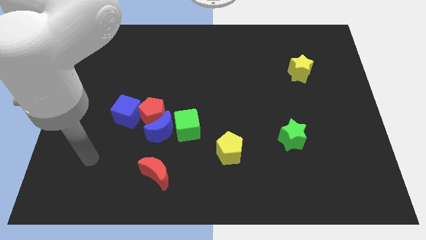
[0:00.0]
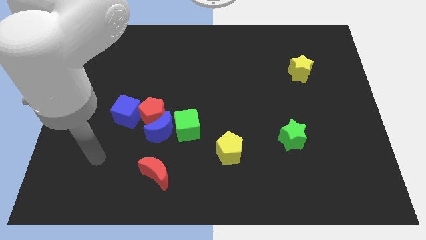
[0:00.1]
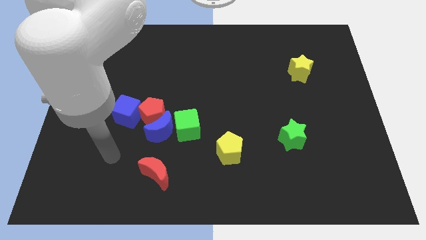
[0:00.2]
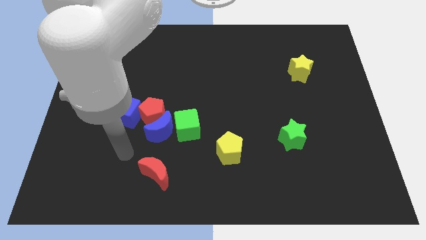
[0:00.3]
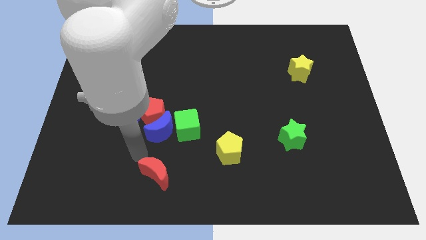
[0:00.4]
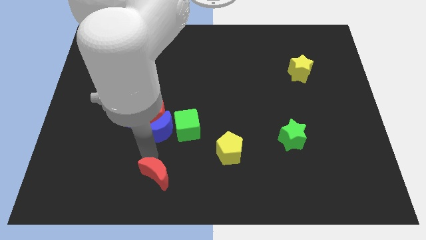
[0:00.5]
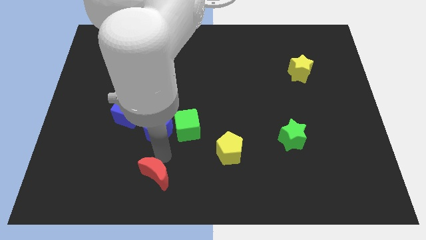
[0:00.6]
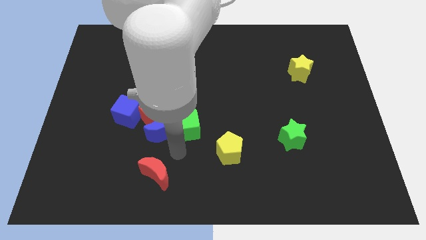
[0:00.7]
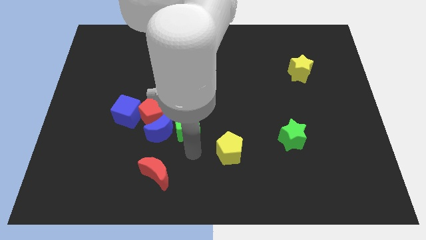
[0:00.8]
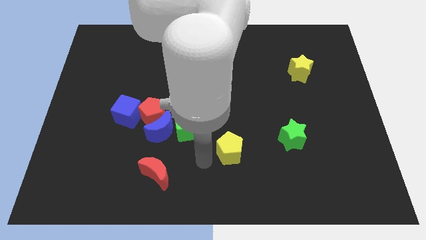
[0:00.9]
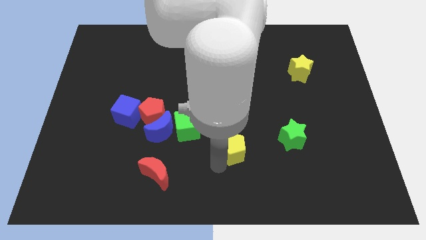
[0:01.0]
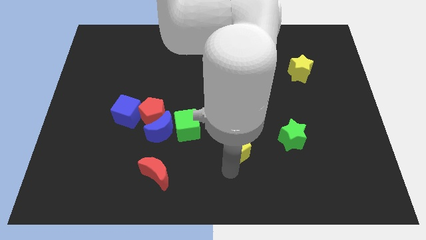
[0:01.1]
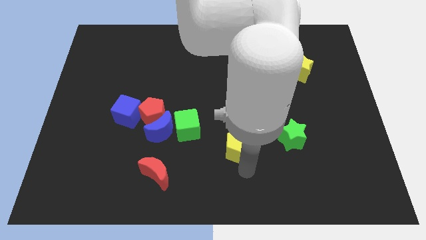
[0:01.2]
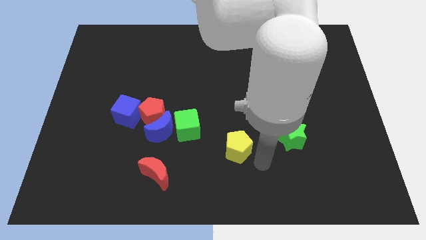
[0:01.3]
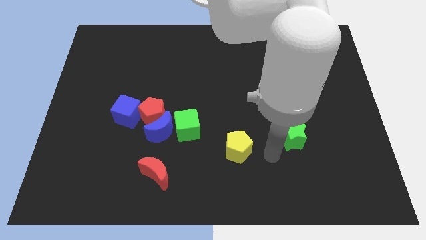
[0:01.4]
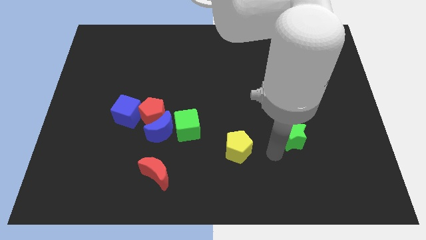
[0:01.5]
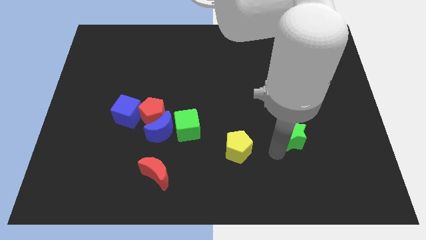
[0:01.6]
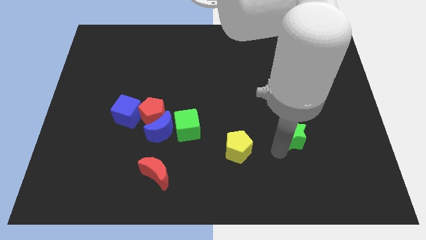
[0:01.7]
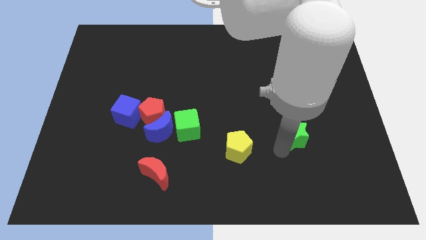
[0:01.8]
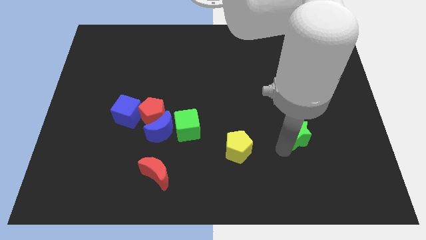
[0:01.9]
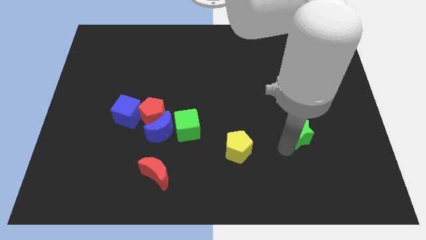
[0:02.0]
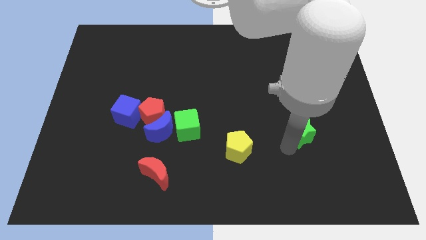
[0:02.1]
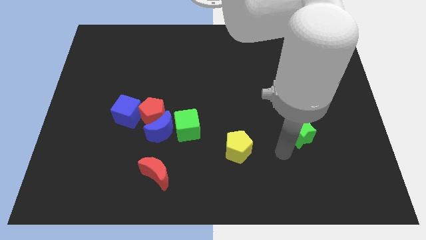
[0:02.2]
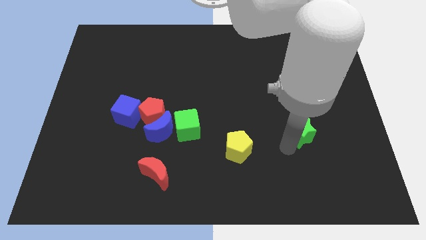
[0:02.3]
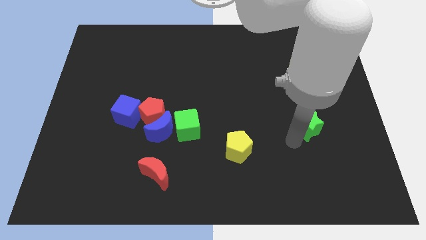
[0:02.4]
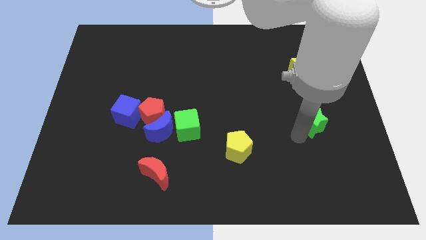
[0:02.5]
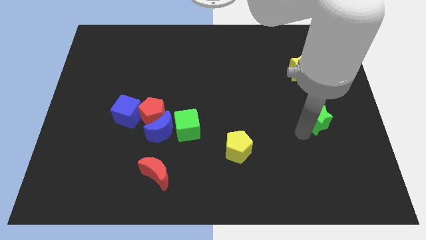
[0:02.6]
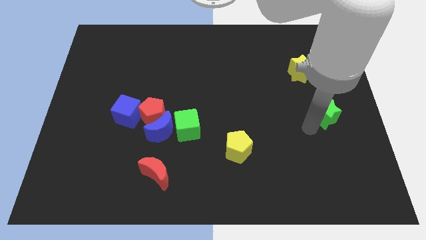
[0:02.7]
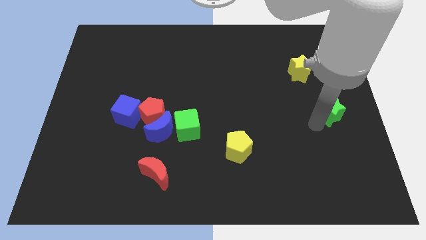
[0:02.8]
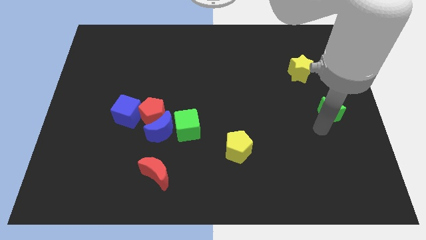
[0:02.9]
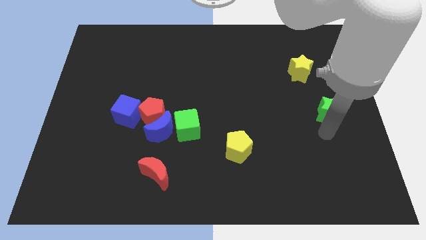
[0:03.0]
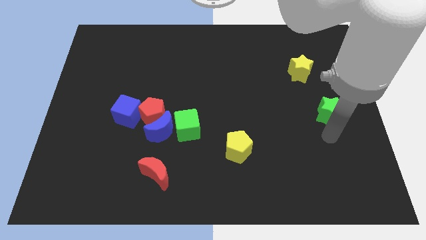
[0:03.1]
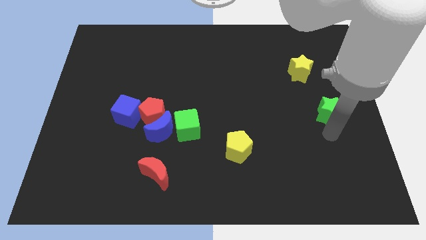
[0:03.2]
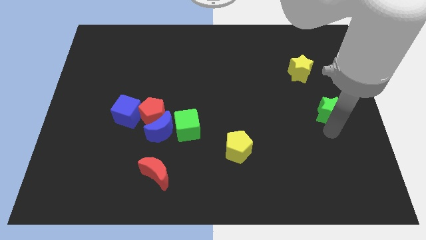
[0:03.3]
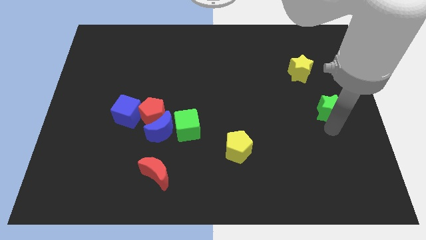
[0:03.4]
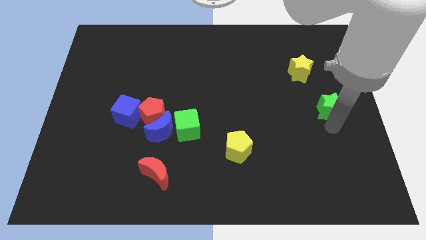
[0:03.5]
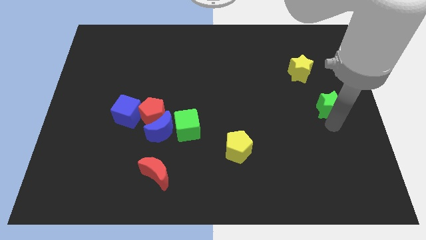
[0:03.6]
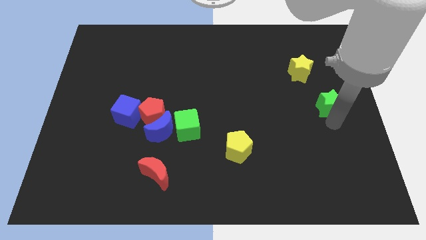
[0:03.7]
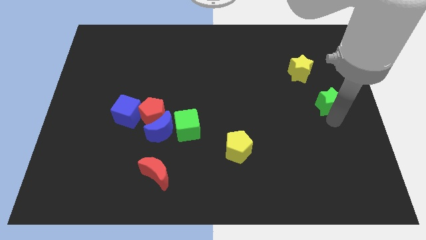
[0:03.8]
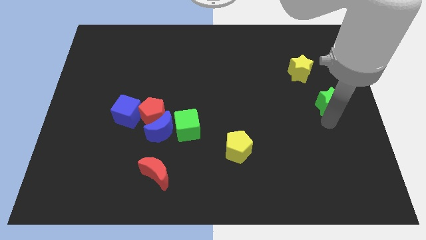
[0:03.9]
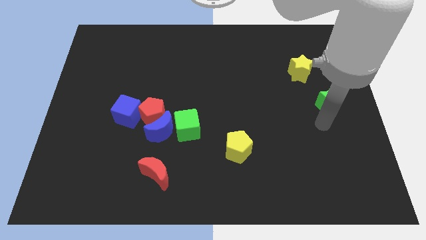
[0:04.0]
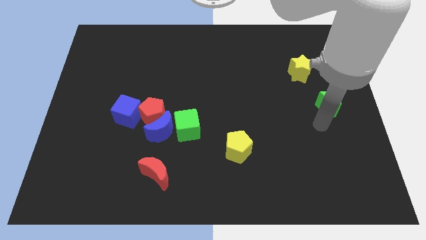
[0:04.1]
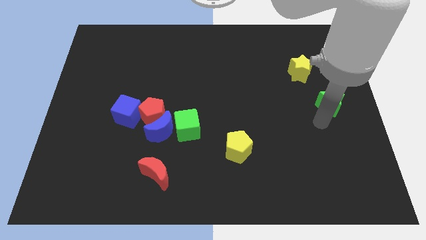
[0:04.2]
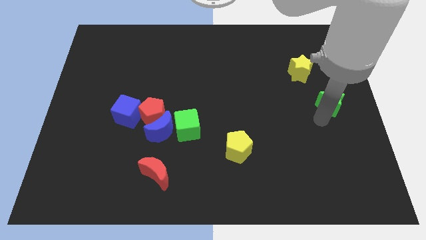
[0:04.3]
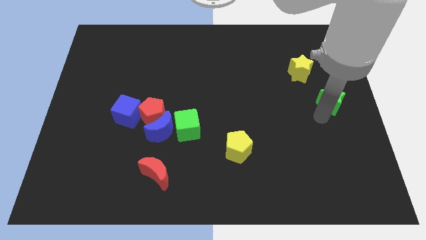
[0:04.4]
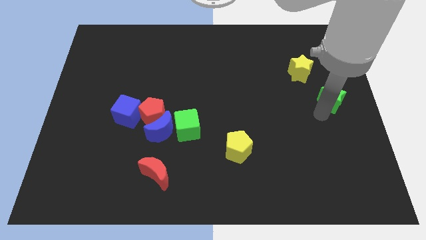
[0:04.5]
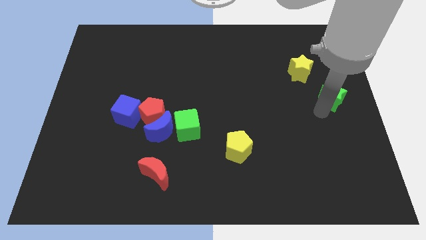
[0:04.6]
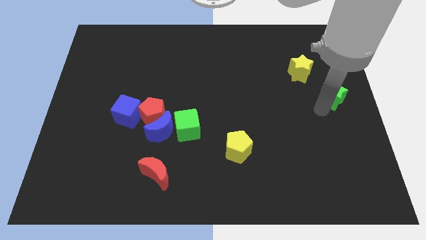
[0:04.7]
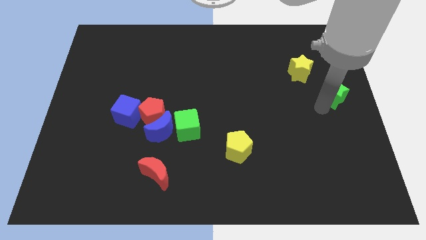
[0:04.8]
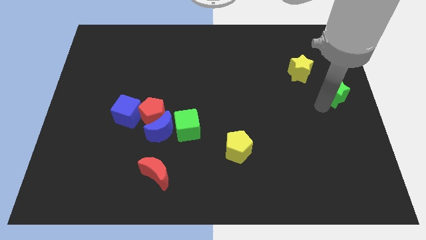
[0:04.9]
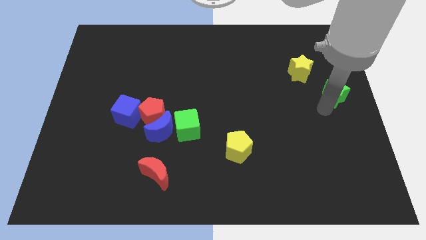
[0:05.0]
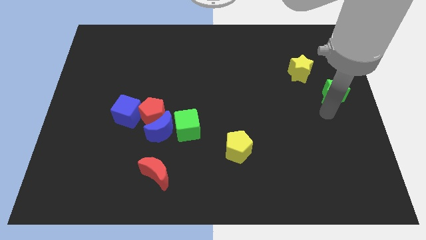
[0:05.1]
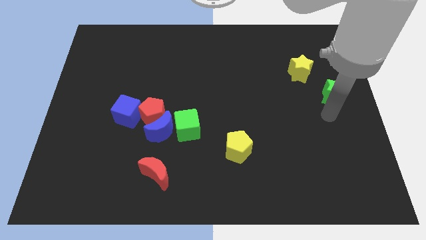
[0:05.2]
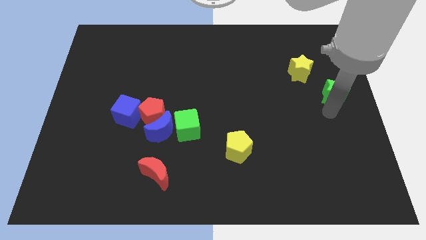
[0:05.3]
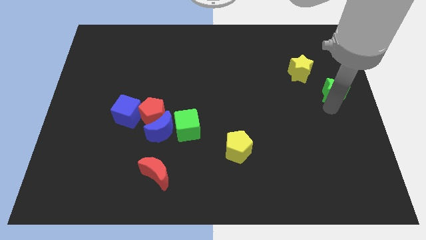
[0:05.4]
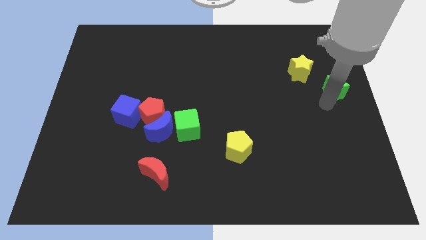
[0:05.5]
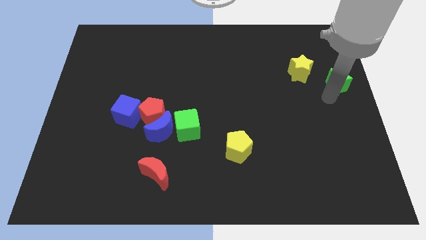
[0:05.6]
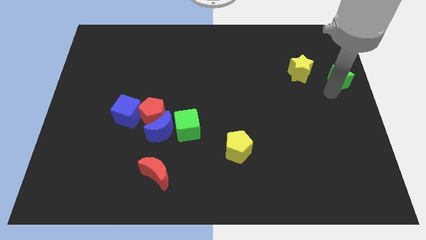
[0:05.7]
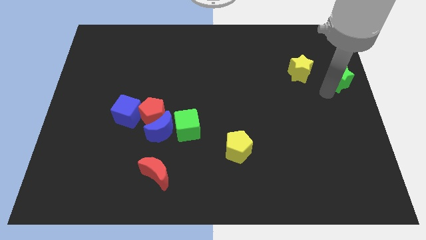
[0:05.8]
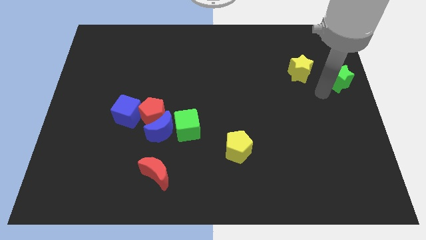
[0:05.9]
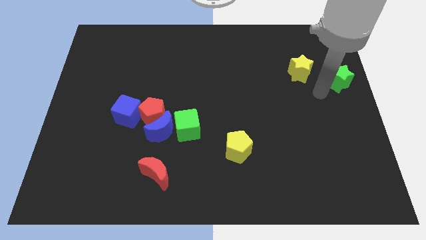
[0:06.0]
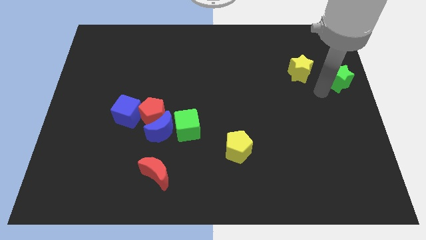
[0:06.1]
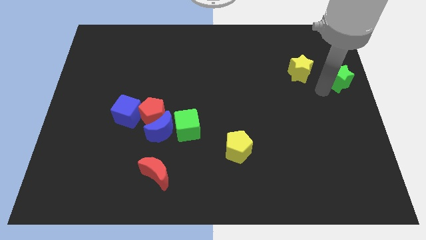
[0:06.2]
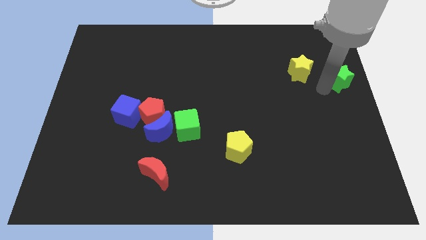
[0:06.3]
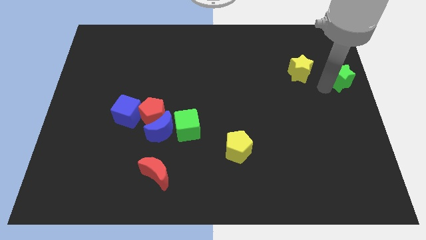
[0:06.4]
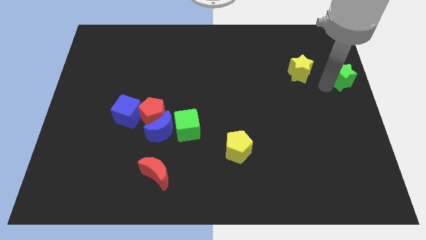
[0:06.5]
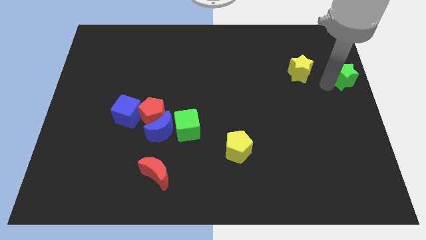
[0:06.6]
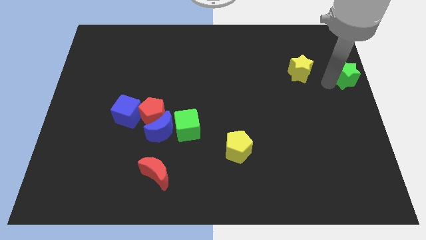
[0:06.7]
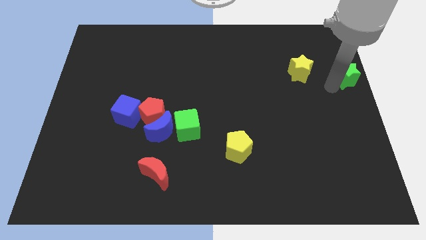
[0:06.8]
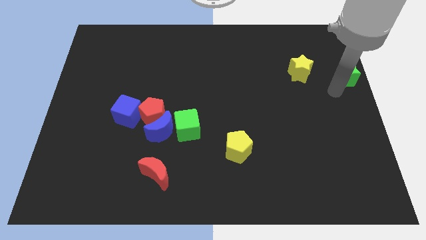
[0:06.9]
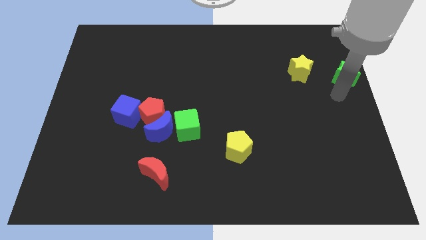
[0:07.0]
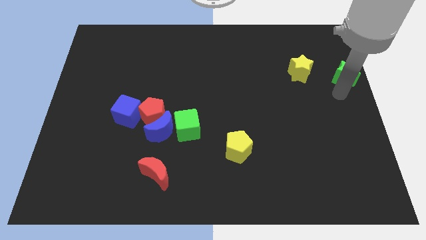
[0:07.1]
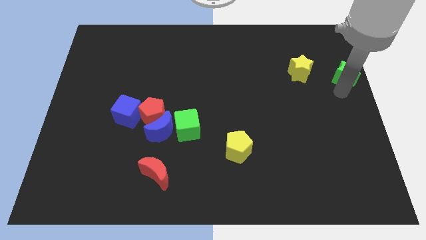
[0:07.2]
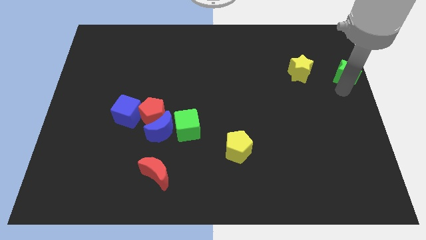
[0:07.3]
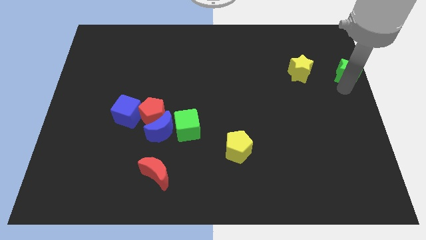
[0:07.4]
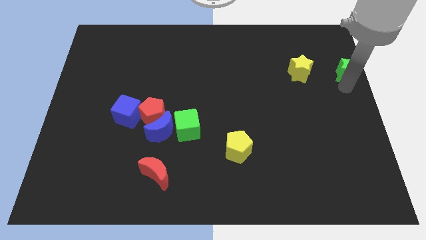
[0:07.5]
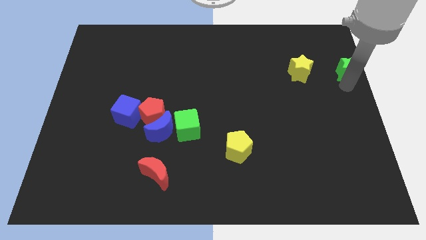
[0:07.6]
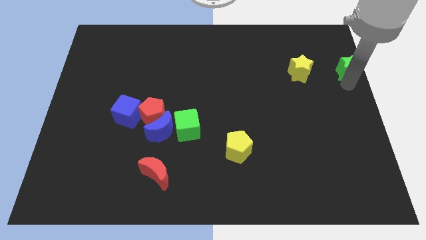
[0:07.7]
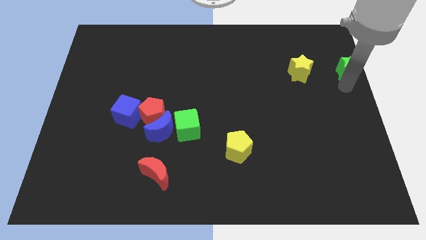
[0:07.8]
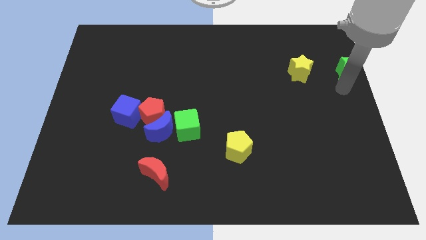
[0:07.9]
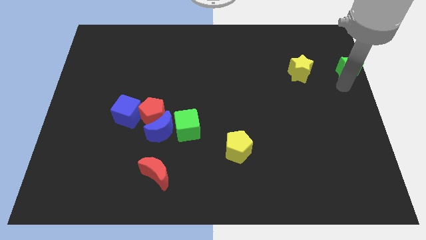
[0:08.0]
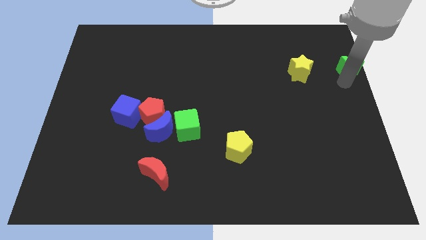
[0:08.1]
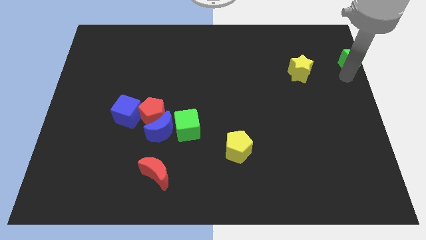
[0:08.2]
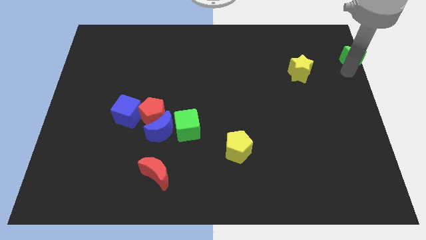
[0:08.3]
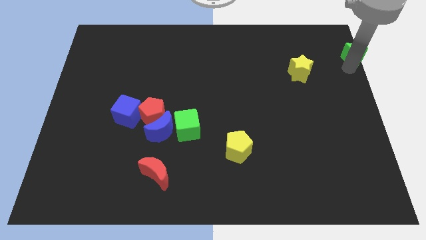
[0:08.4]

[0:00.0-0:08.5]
slide the green star to the top right
